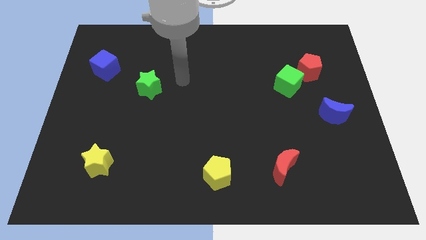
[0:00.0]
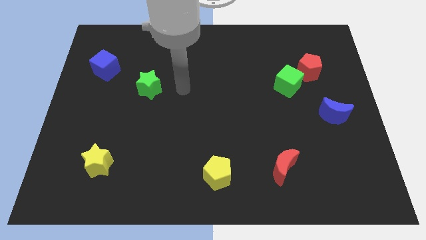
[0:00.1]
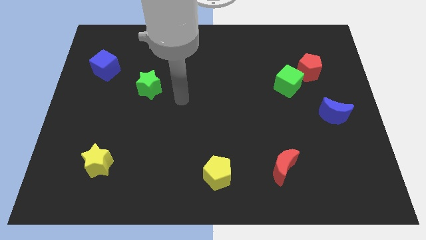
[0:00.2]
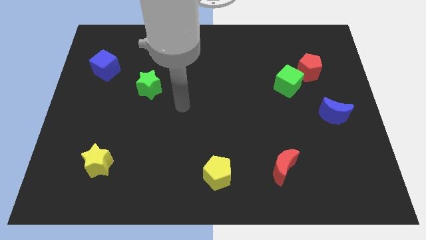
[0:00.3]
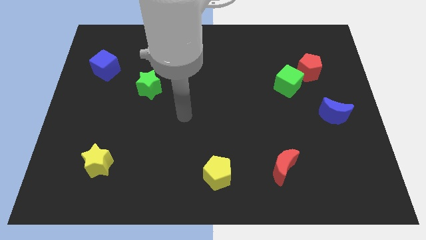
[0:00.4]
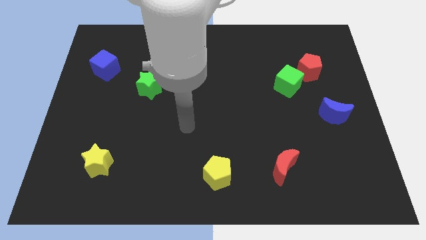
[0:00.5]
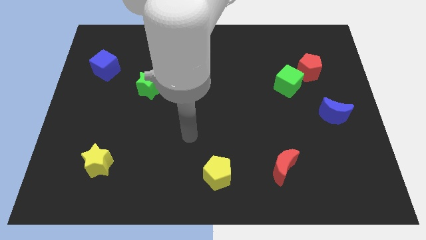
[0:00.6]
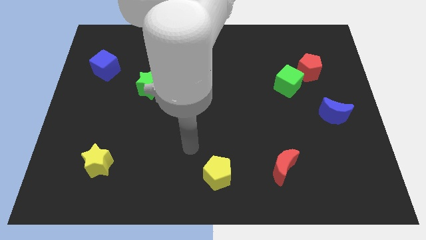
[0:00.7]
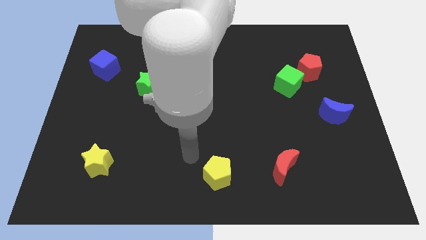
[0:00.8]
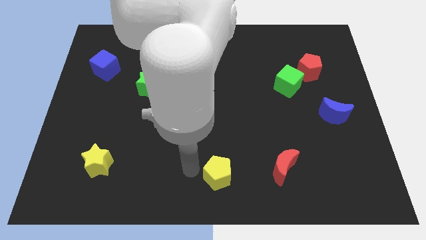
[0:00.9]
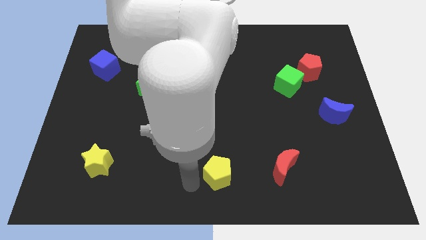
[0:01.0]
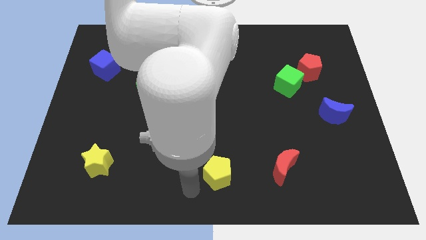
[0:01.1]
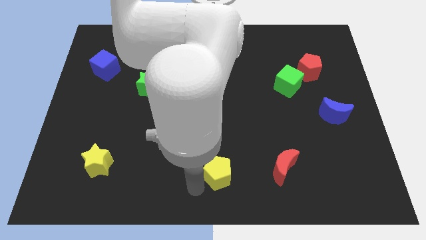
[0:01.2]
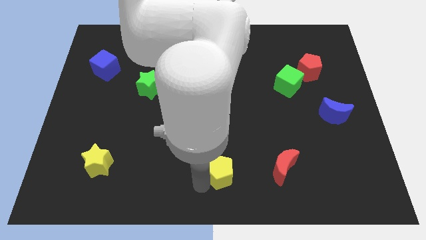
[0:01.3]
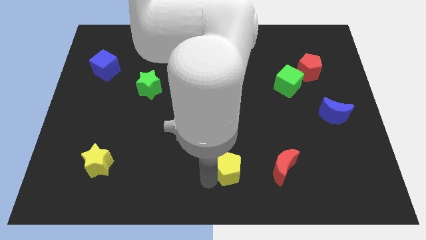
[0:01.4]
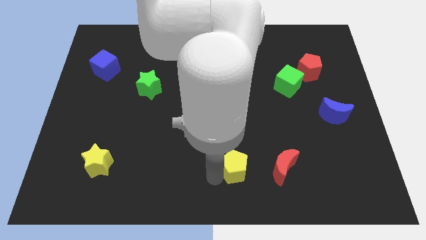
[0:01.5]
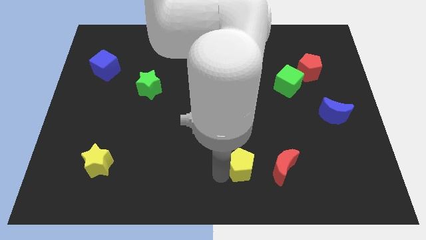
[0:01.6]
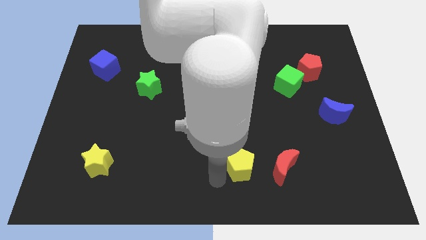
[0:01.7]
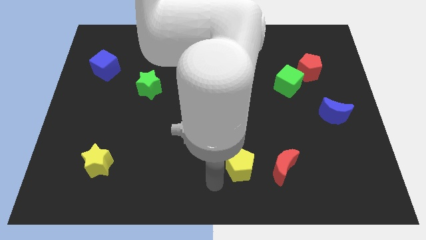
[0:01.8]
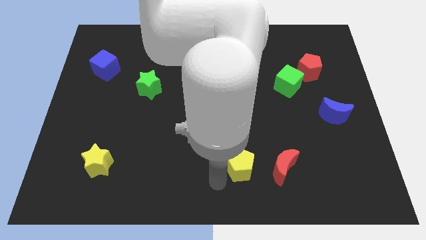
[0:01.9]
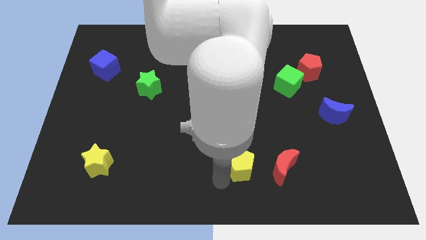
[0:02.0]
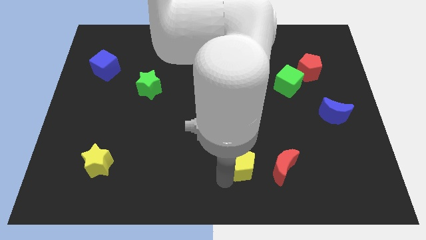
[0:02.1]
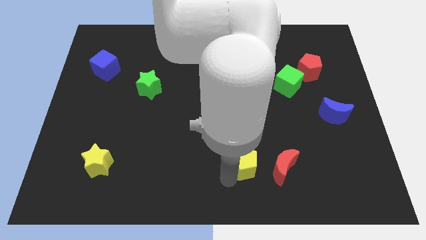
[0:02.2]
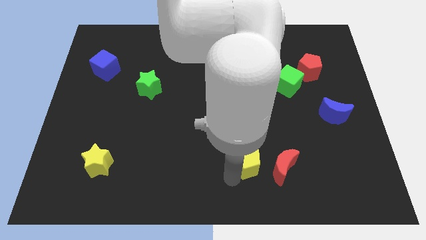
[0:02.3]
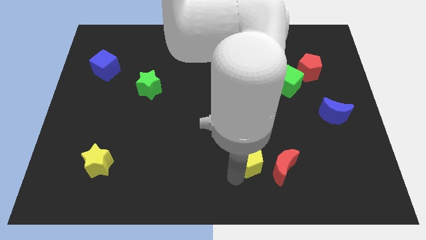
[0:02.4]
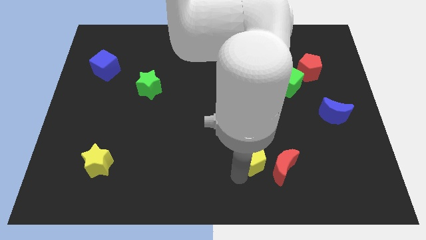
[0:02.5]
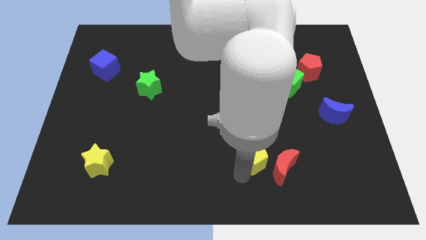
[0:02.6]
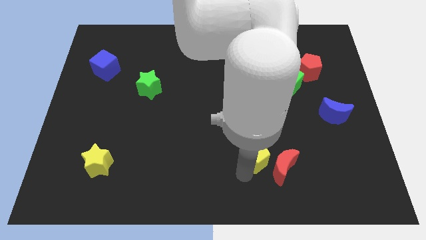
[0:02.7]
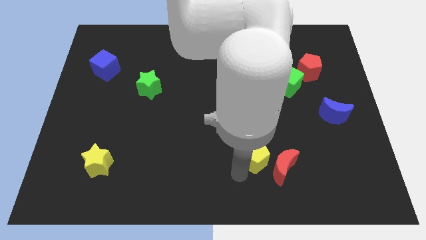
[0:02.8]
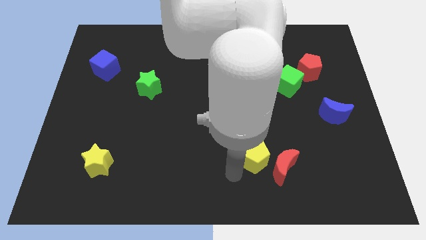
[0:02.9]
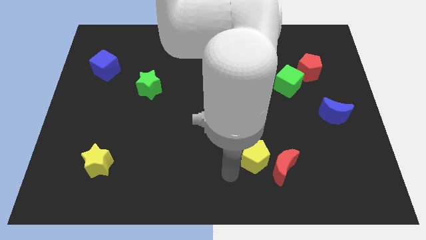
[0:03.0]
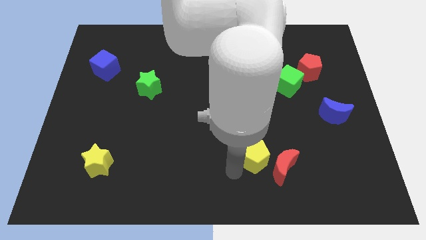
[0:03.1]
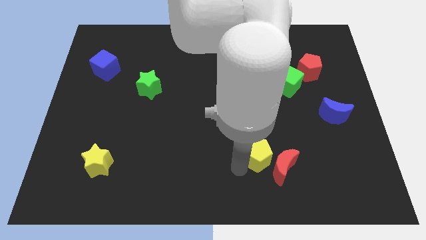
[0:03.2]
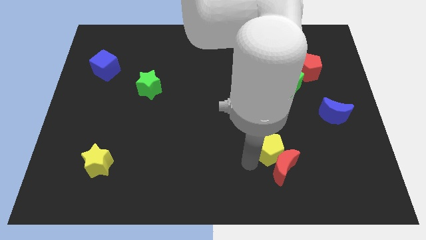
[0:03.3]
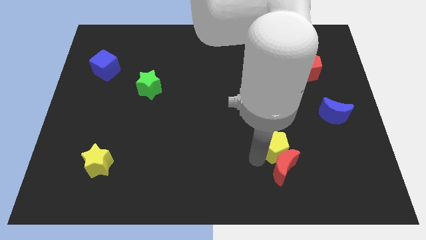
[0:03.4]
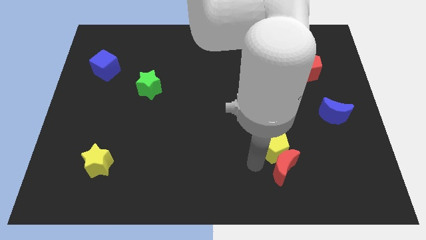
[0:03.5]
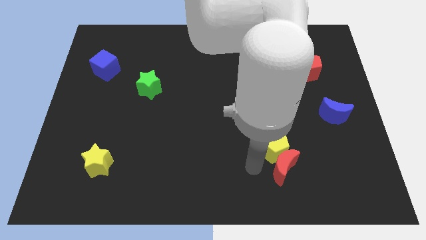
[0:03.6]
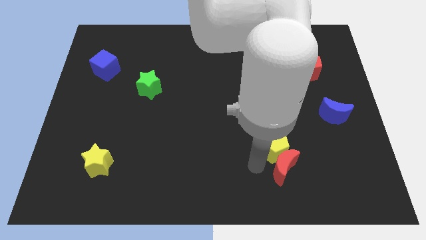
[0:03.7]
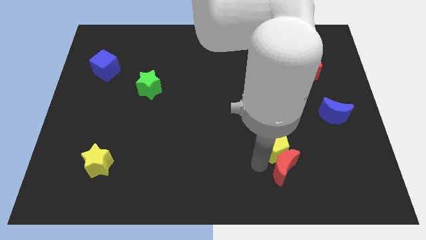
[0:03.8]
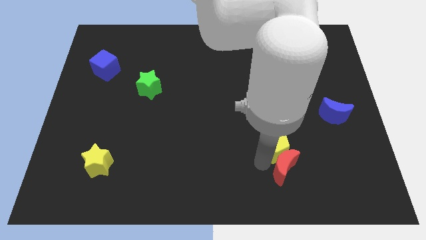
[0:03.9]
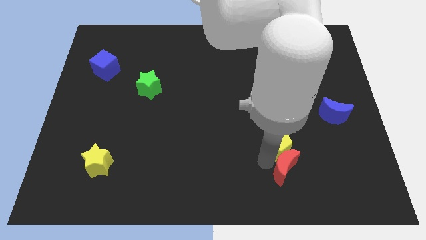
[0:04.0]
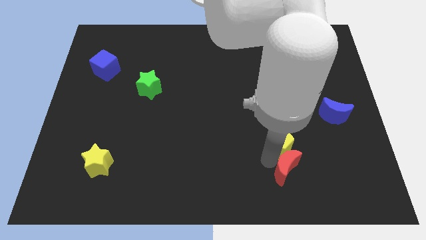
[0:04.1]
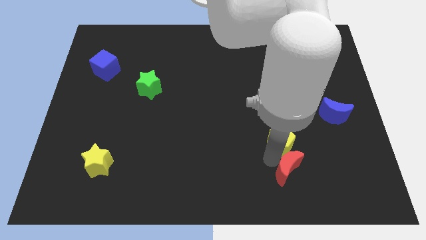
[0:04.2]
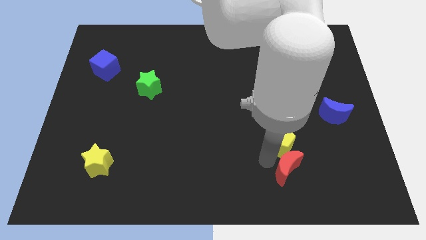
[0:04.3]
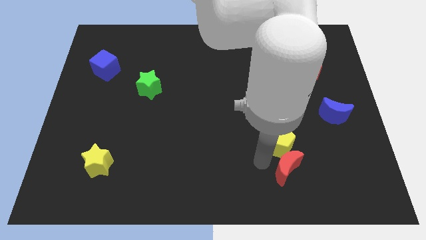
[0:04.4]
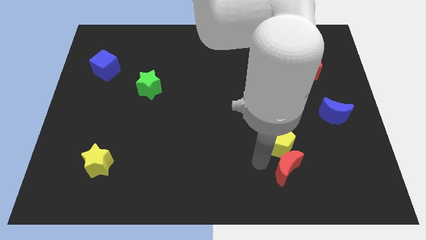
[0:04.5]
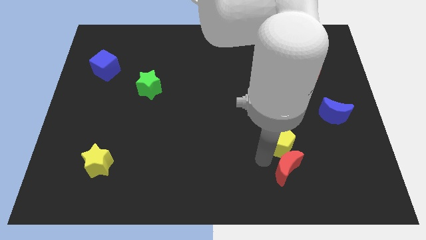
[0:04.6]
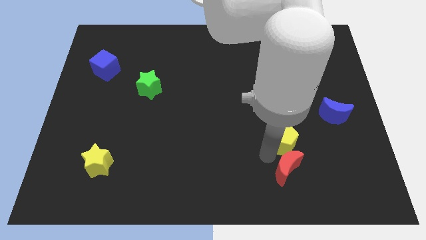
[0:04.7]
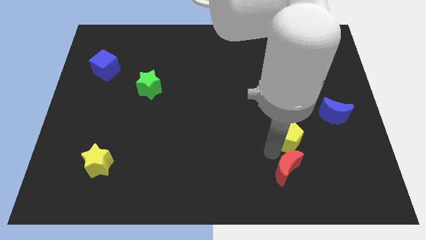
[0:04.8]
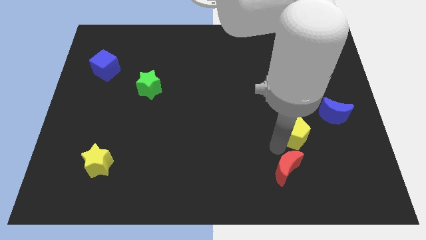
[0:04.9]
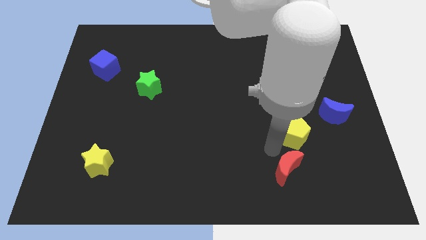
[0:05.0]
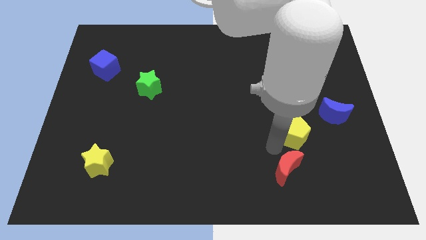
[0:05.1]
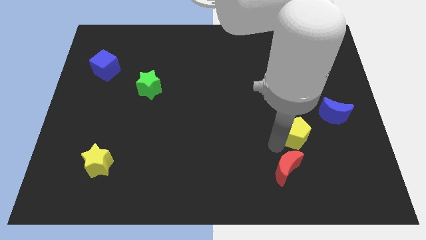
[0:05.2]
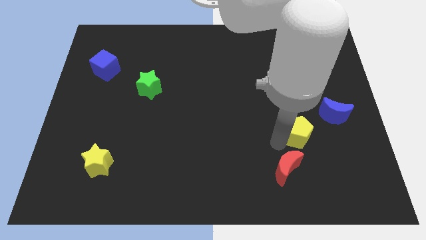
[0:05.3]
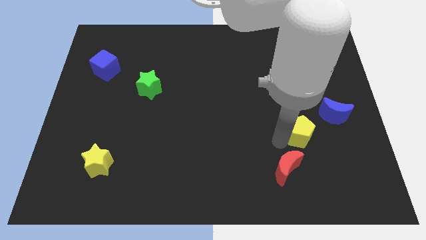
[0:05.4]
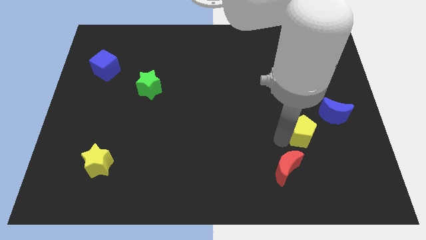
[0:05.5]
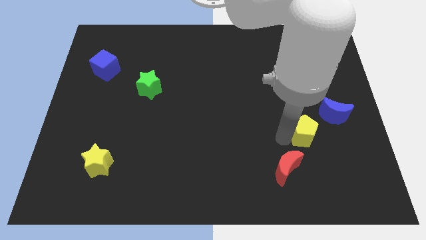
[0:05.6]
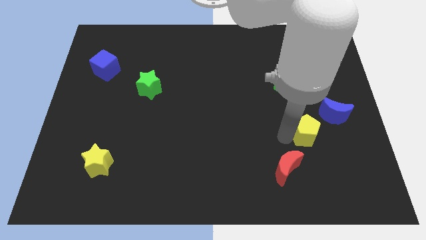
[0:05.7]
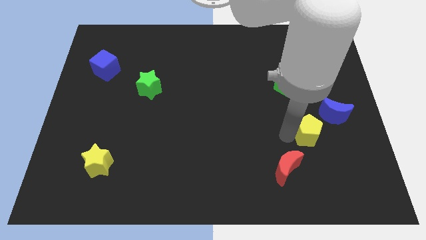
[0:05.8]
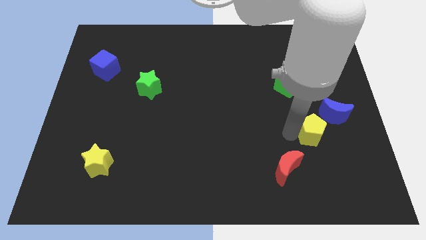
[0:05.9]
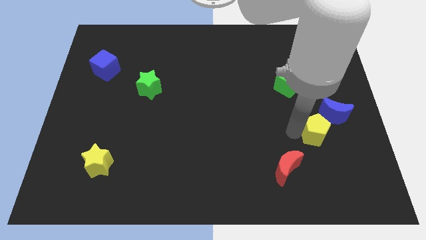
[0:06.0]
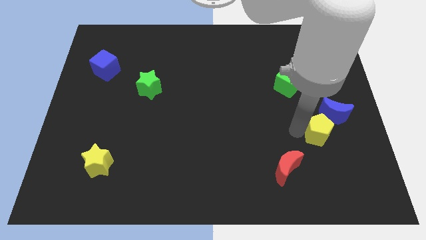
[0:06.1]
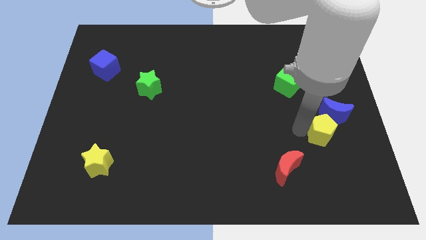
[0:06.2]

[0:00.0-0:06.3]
move the yellow pentagon next to the blue moon
